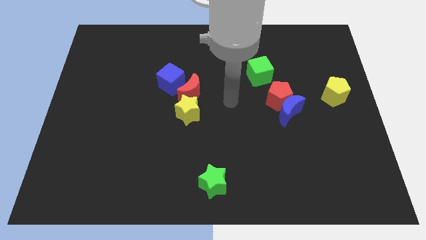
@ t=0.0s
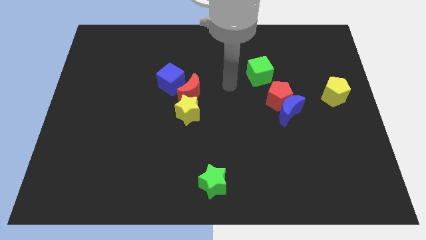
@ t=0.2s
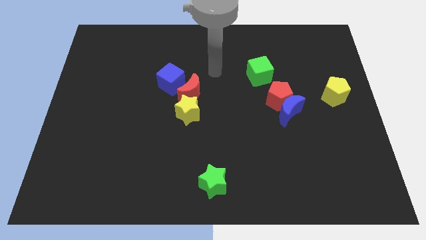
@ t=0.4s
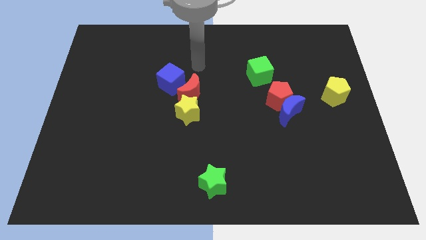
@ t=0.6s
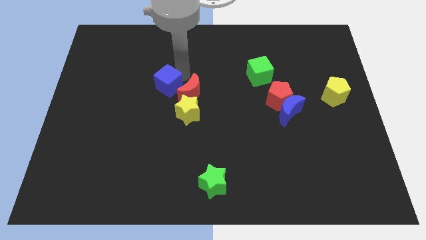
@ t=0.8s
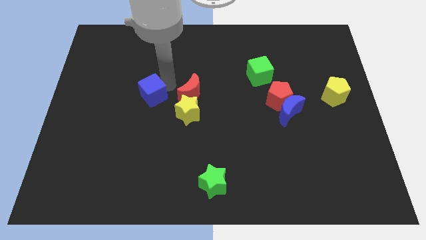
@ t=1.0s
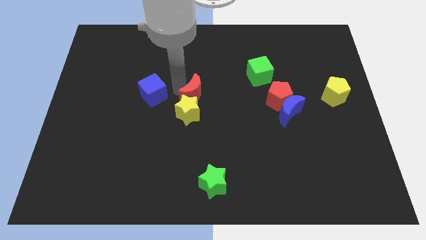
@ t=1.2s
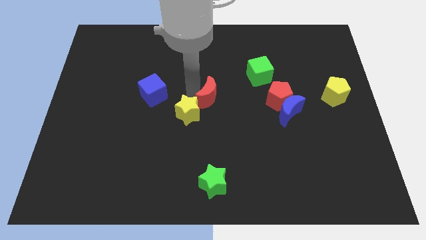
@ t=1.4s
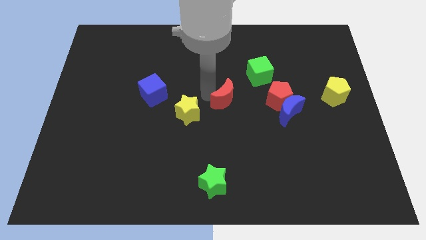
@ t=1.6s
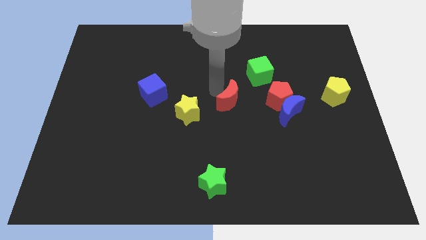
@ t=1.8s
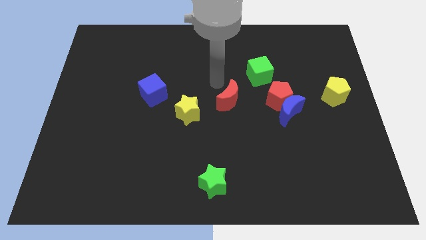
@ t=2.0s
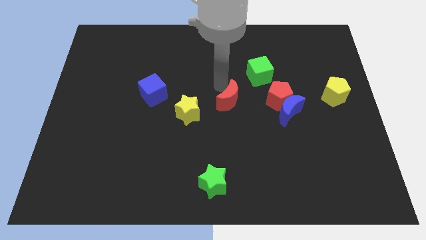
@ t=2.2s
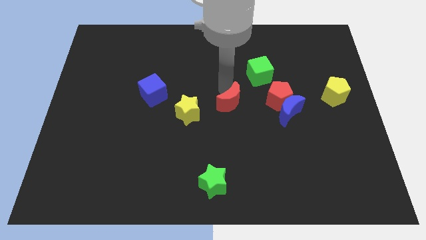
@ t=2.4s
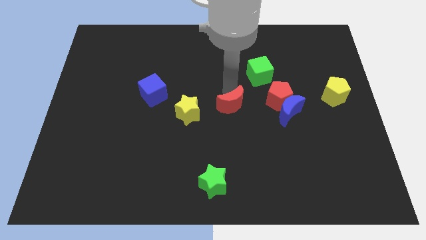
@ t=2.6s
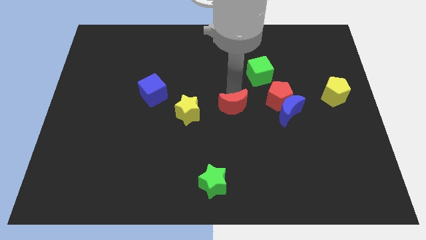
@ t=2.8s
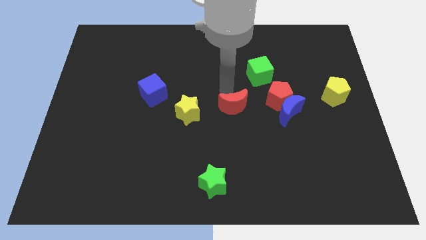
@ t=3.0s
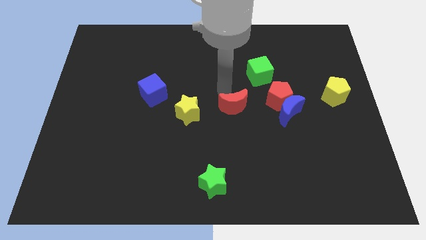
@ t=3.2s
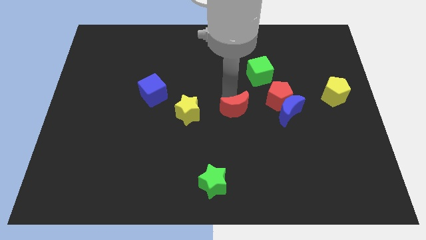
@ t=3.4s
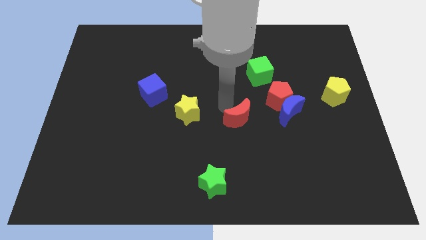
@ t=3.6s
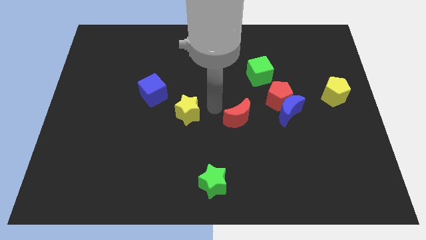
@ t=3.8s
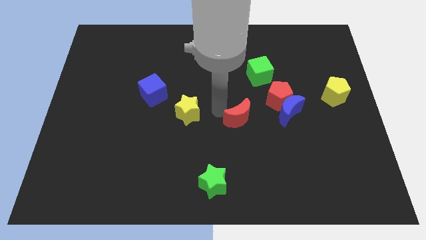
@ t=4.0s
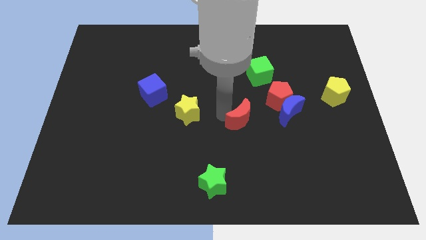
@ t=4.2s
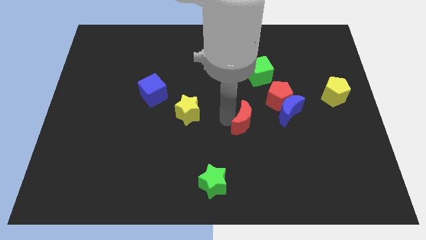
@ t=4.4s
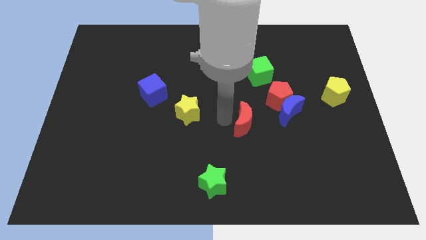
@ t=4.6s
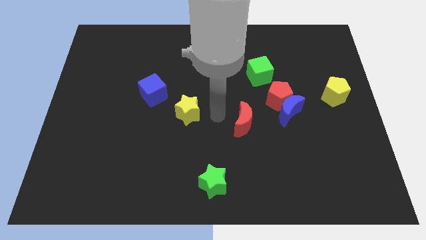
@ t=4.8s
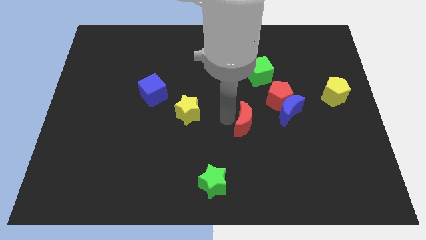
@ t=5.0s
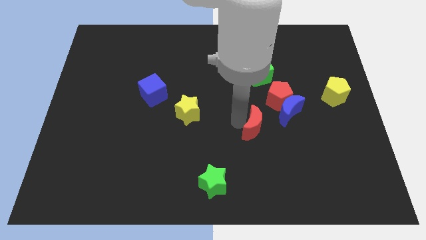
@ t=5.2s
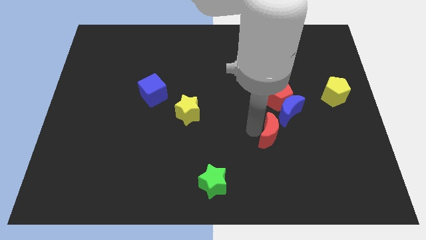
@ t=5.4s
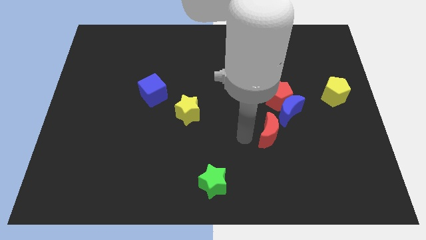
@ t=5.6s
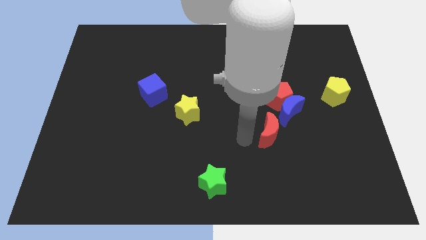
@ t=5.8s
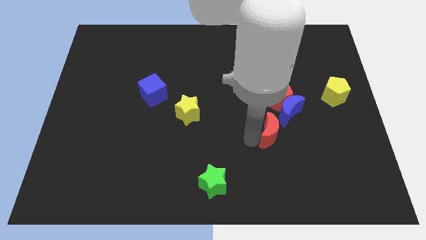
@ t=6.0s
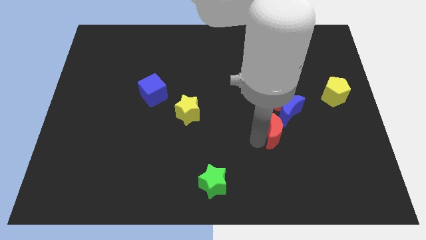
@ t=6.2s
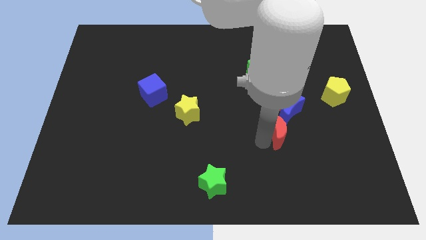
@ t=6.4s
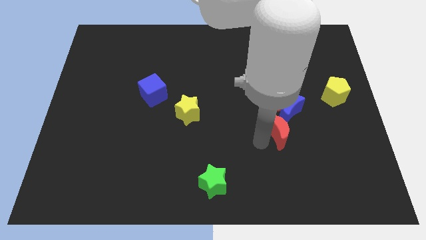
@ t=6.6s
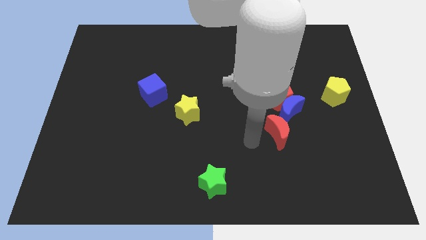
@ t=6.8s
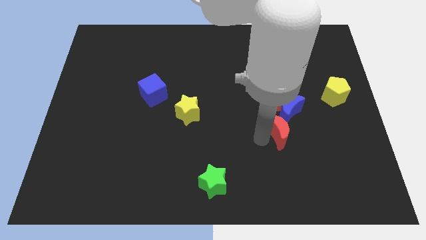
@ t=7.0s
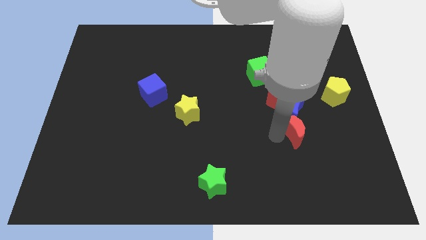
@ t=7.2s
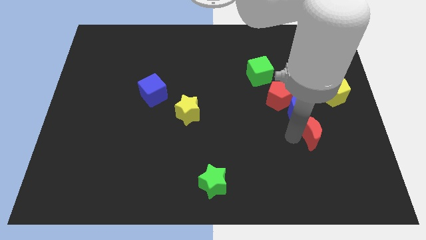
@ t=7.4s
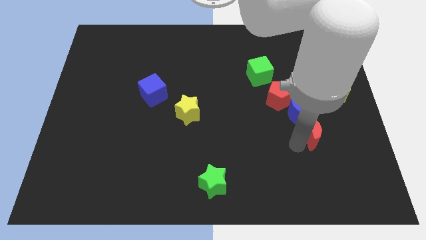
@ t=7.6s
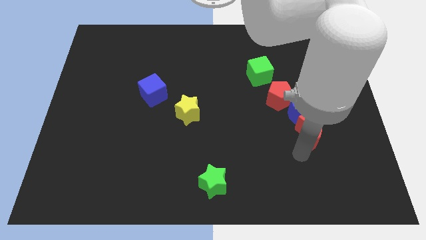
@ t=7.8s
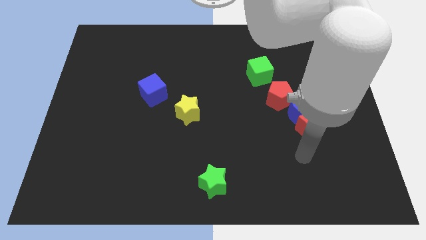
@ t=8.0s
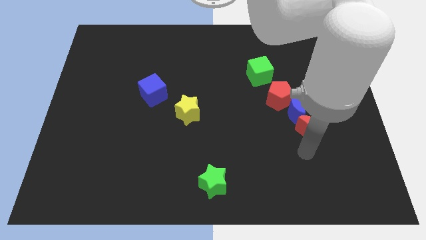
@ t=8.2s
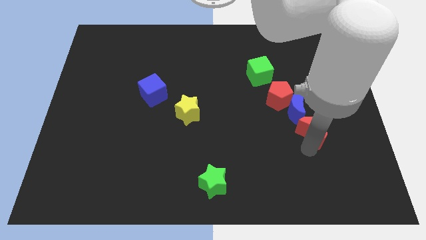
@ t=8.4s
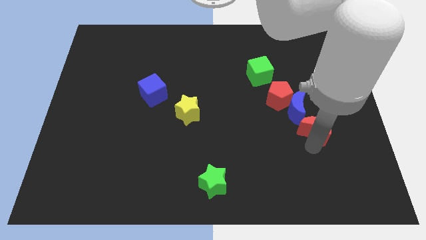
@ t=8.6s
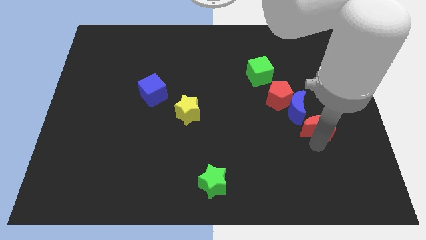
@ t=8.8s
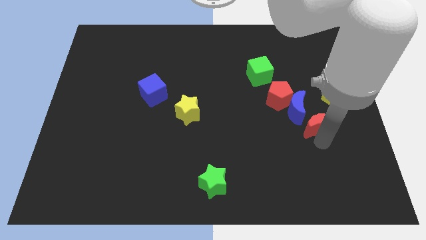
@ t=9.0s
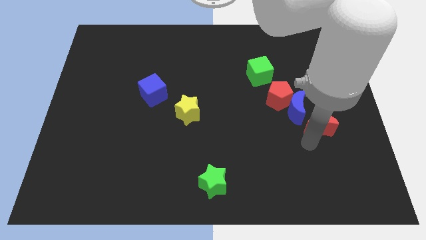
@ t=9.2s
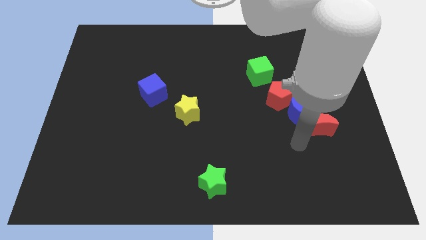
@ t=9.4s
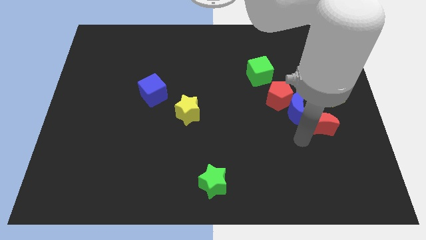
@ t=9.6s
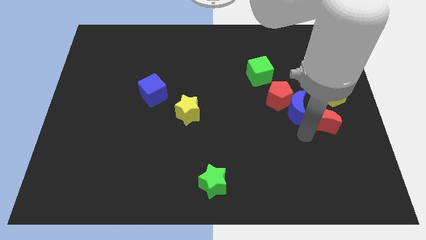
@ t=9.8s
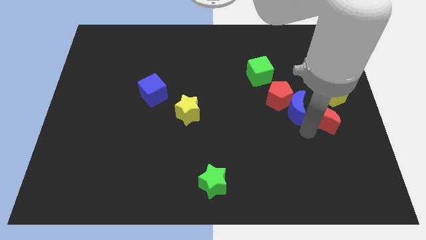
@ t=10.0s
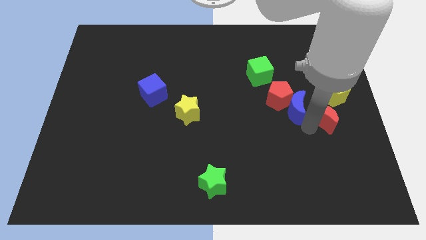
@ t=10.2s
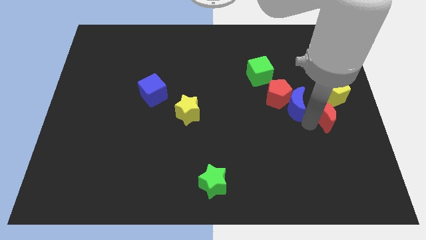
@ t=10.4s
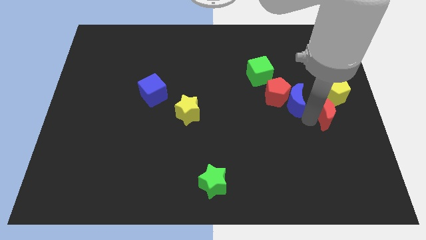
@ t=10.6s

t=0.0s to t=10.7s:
push the red moon to the right side

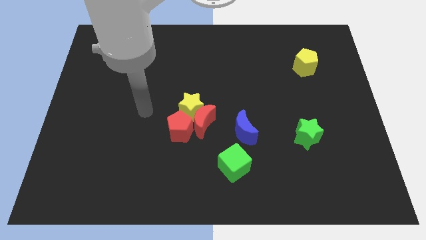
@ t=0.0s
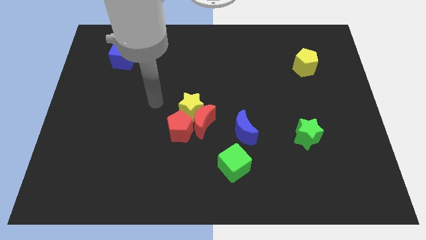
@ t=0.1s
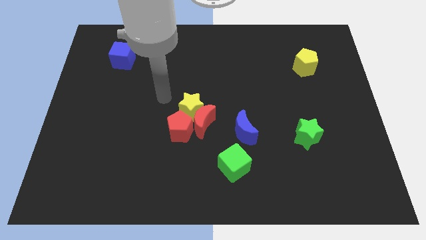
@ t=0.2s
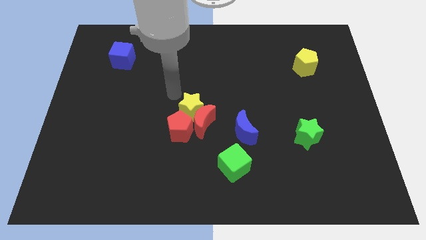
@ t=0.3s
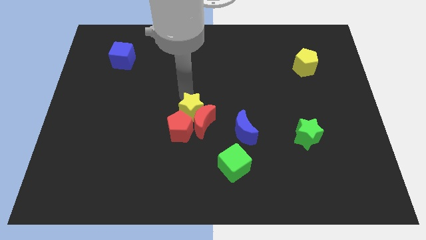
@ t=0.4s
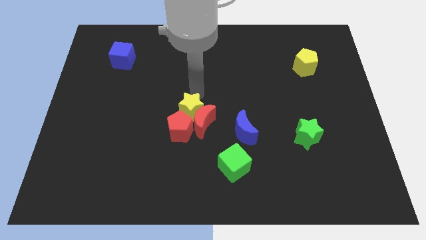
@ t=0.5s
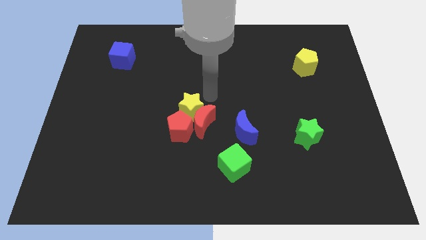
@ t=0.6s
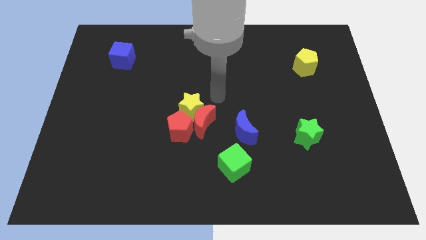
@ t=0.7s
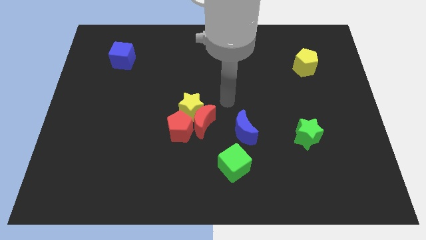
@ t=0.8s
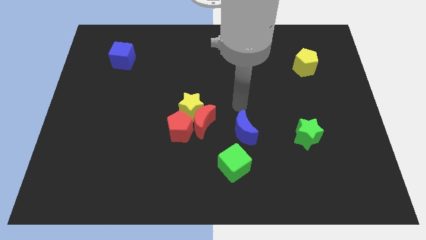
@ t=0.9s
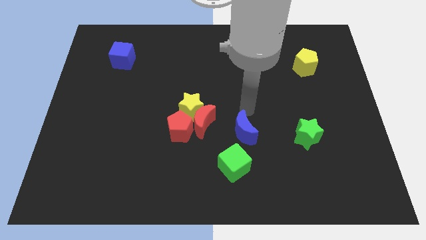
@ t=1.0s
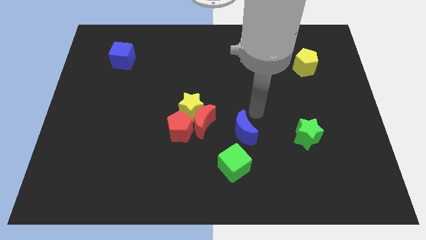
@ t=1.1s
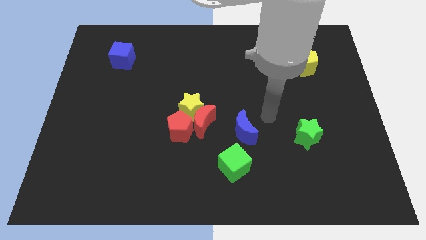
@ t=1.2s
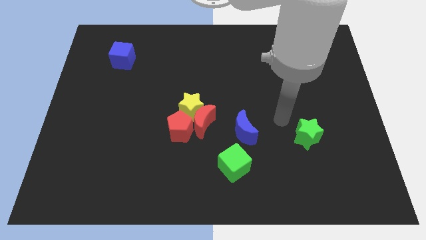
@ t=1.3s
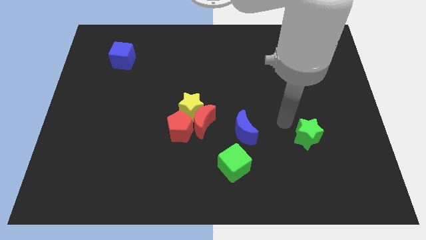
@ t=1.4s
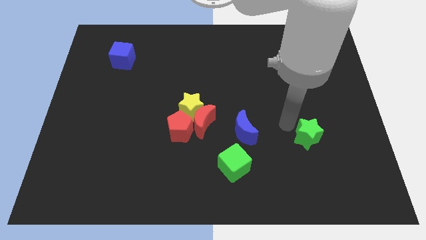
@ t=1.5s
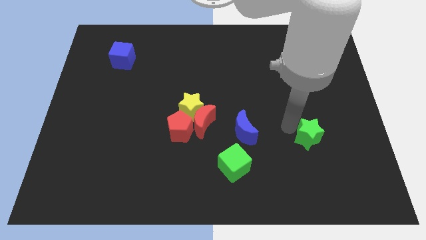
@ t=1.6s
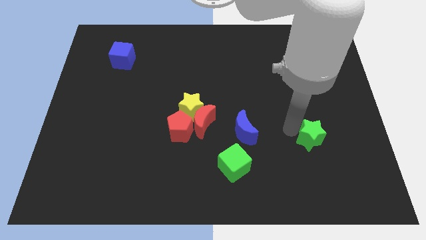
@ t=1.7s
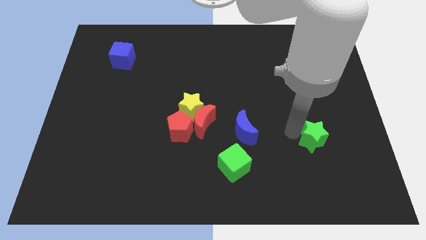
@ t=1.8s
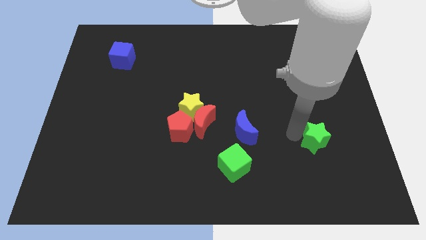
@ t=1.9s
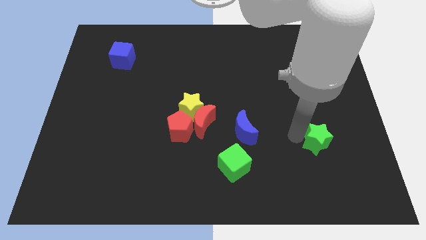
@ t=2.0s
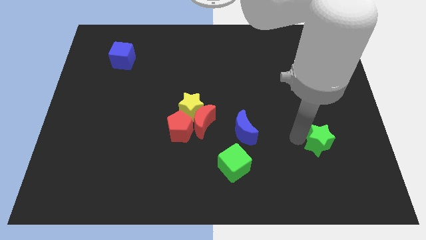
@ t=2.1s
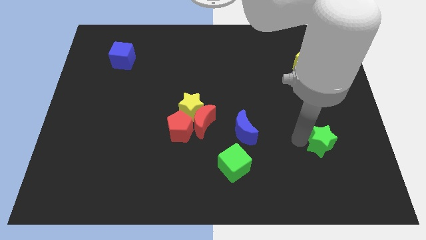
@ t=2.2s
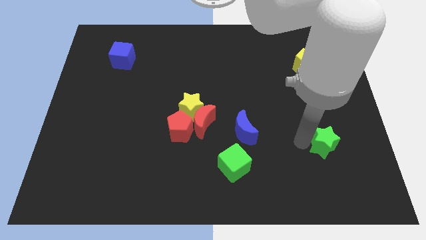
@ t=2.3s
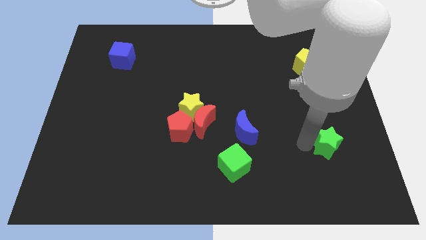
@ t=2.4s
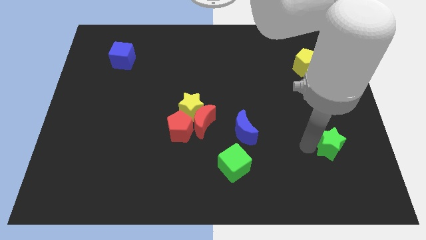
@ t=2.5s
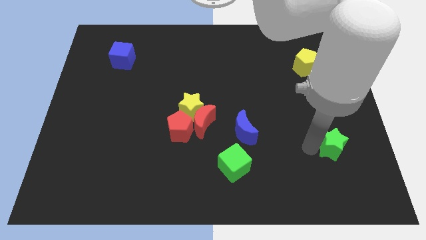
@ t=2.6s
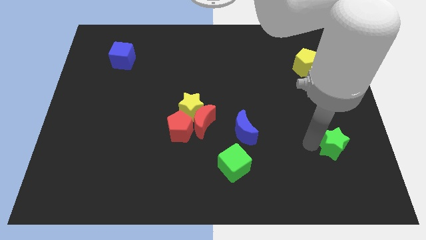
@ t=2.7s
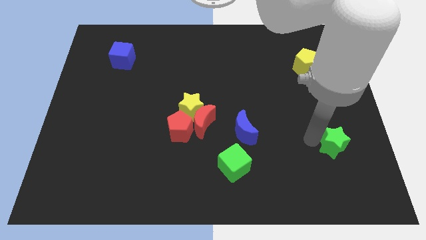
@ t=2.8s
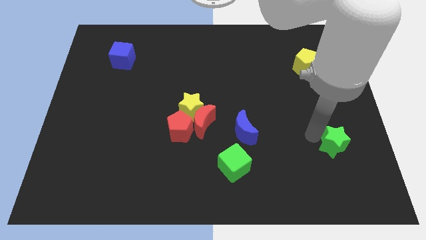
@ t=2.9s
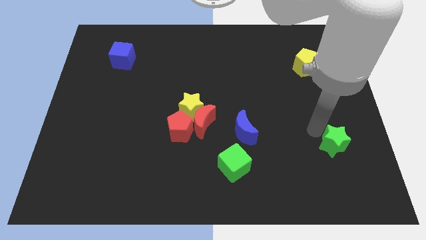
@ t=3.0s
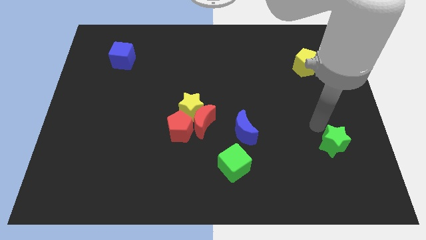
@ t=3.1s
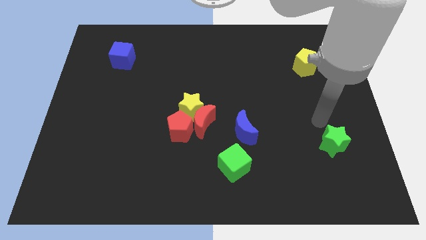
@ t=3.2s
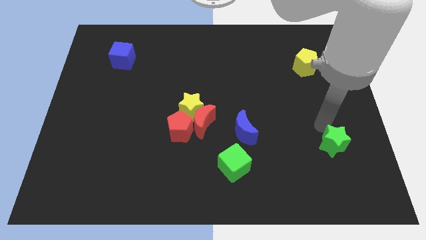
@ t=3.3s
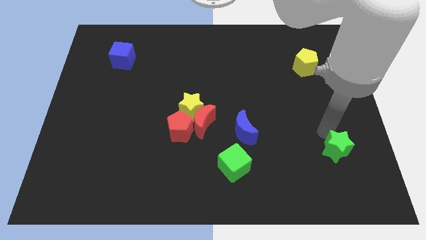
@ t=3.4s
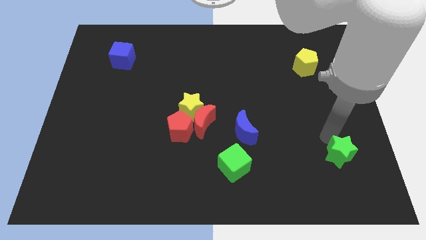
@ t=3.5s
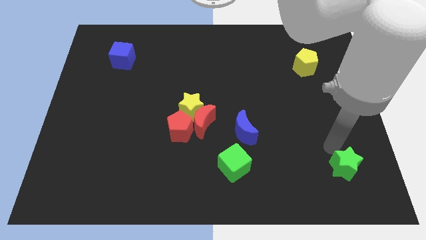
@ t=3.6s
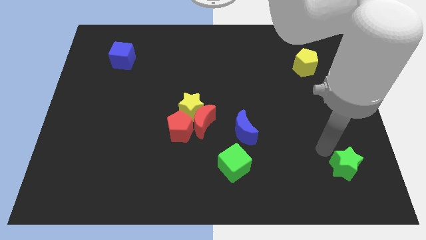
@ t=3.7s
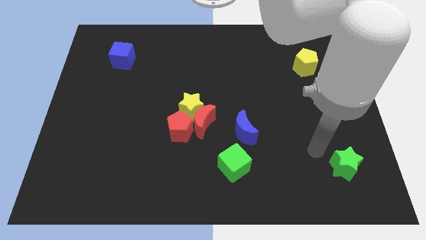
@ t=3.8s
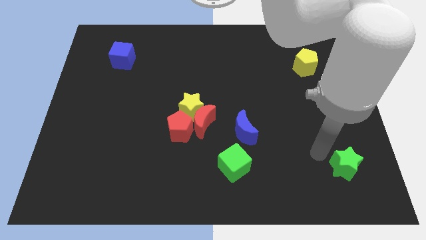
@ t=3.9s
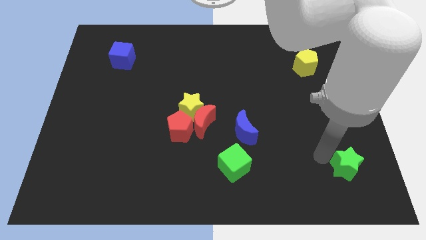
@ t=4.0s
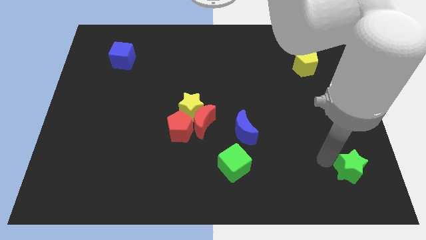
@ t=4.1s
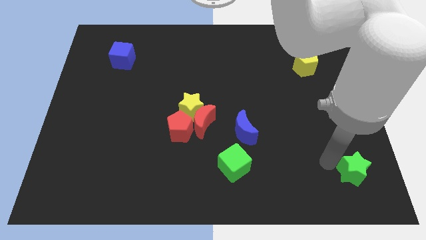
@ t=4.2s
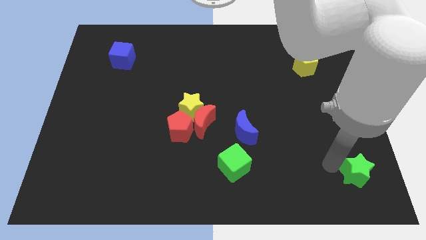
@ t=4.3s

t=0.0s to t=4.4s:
put the green star to the lower right corner
